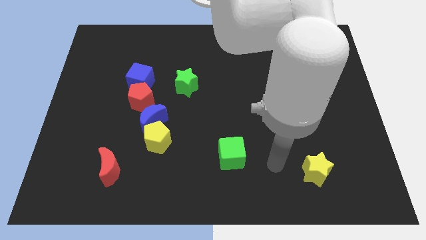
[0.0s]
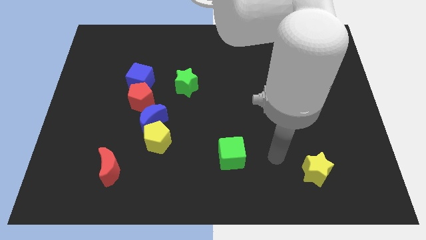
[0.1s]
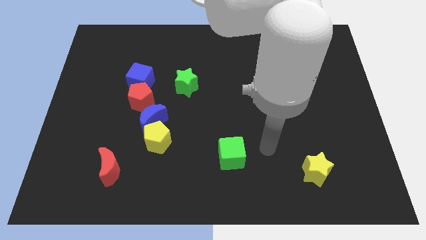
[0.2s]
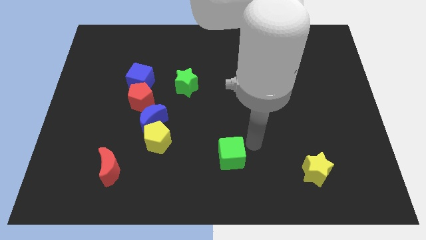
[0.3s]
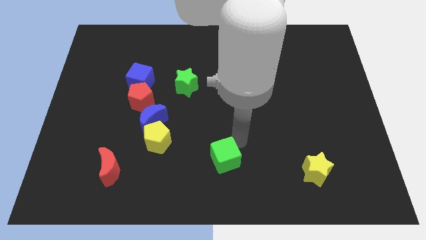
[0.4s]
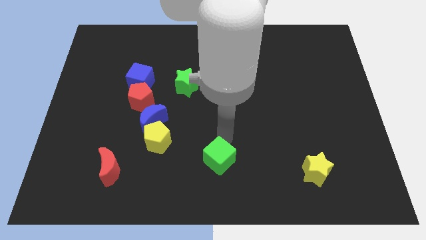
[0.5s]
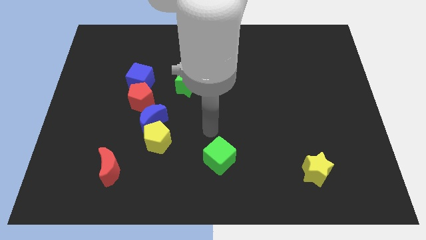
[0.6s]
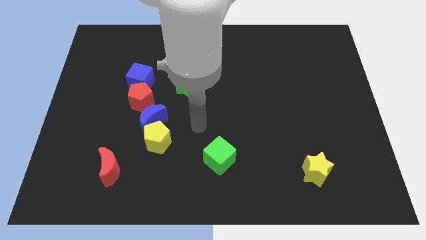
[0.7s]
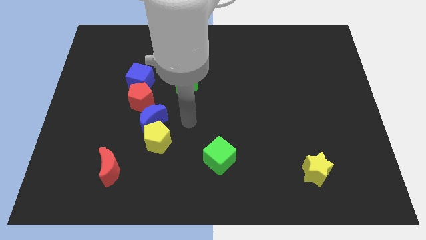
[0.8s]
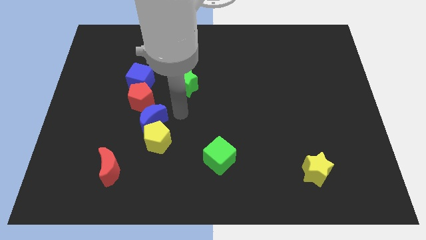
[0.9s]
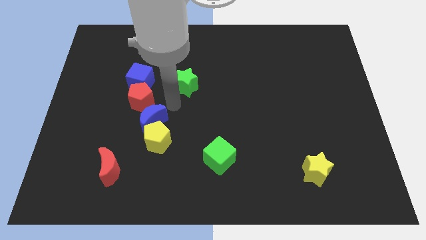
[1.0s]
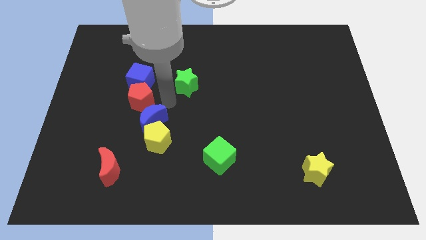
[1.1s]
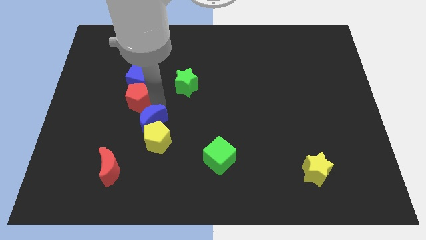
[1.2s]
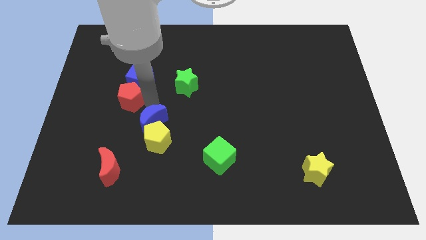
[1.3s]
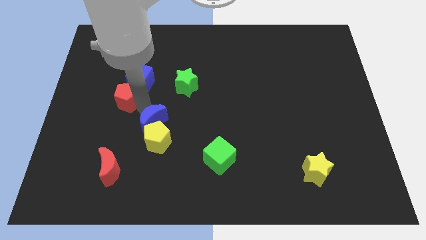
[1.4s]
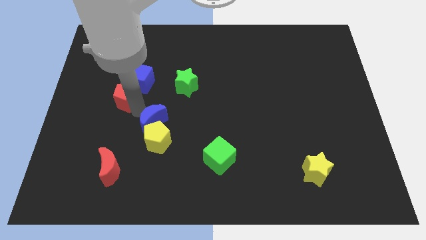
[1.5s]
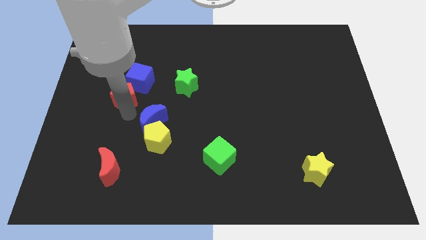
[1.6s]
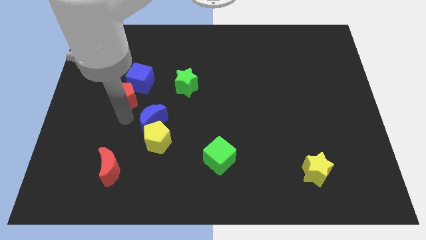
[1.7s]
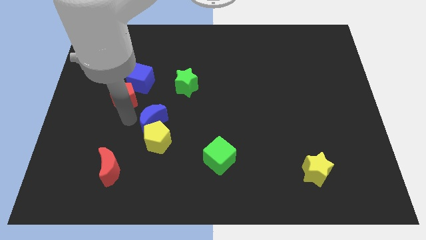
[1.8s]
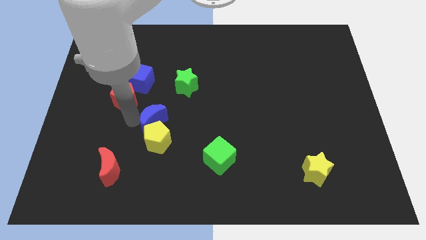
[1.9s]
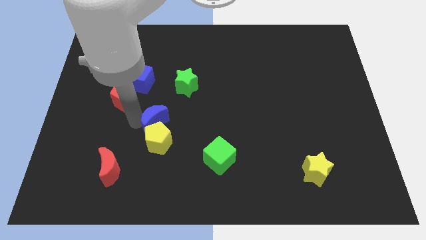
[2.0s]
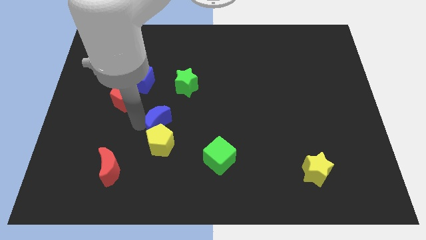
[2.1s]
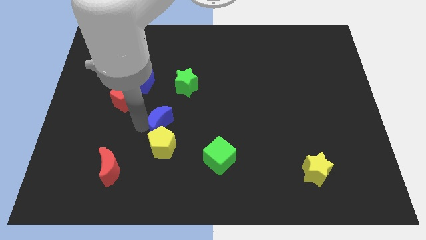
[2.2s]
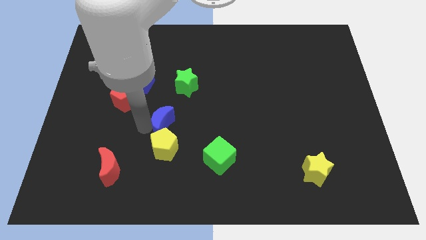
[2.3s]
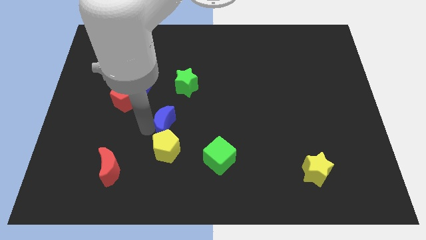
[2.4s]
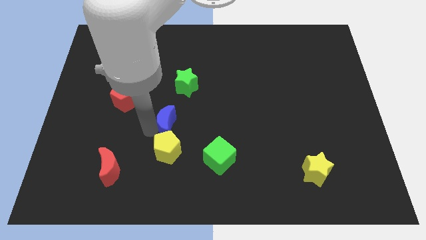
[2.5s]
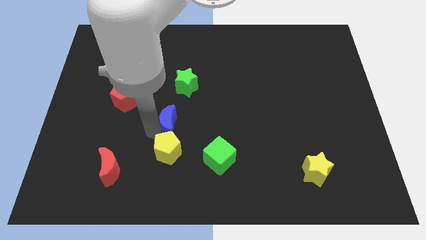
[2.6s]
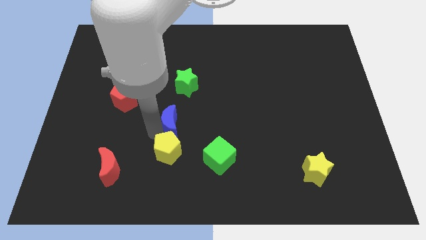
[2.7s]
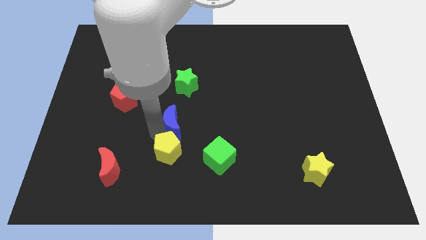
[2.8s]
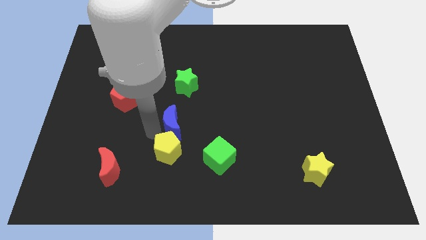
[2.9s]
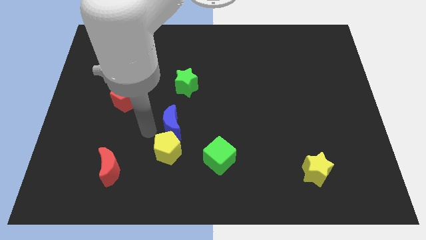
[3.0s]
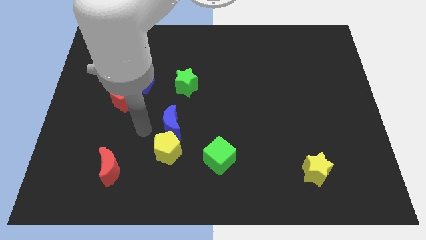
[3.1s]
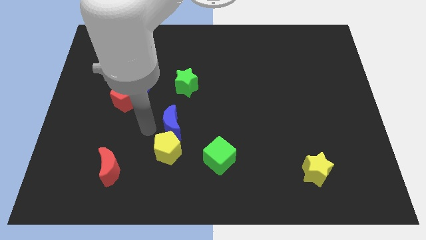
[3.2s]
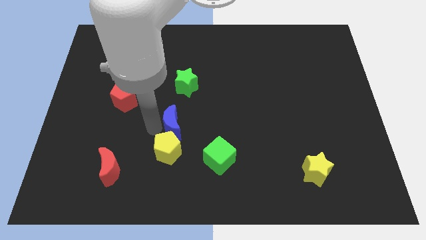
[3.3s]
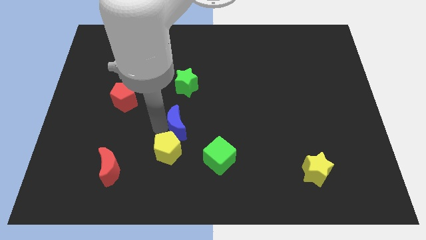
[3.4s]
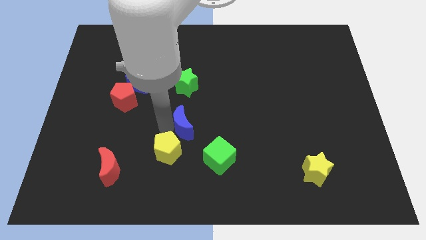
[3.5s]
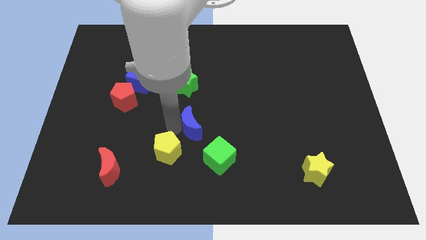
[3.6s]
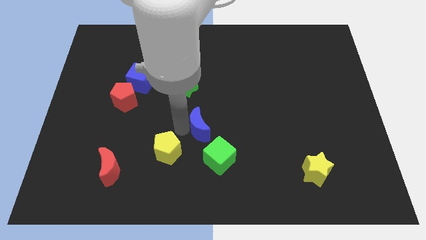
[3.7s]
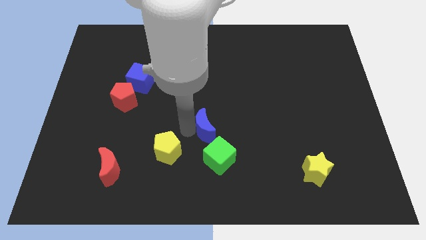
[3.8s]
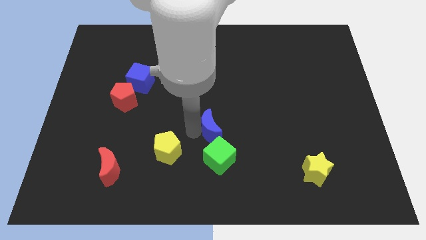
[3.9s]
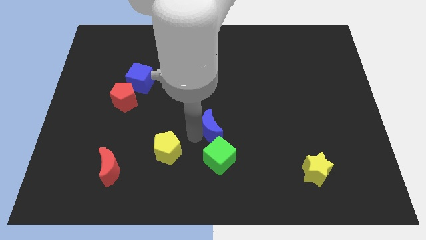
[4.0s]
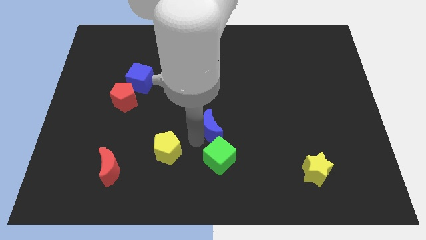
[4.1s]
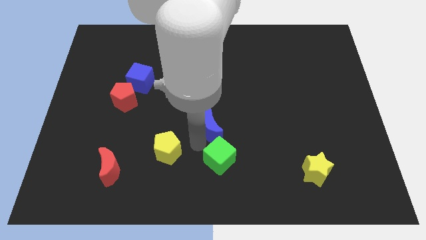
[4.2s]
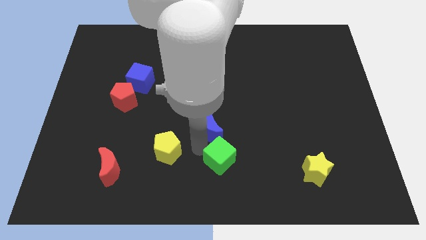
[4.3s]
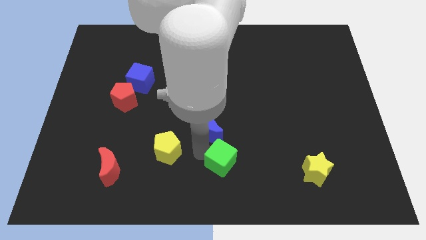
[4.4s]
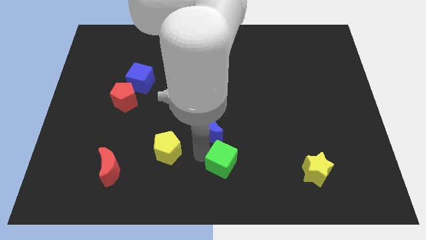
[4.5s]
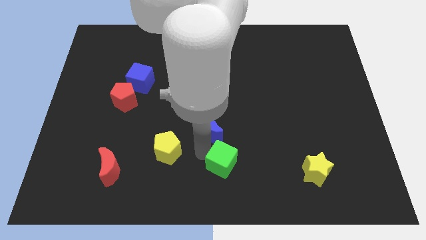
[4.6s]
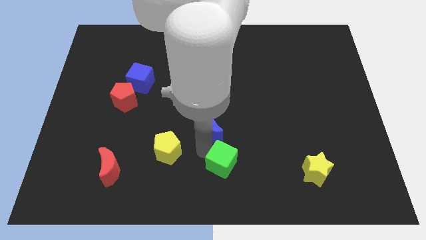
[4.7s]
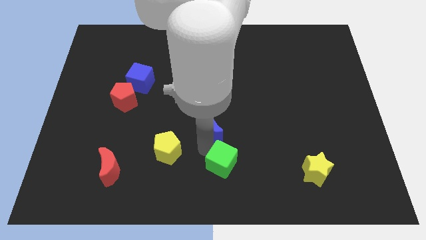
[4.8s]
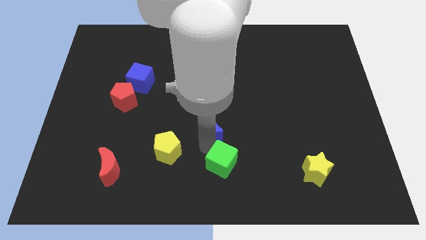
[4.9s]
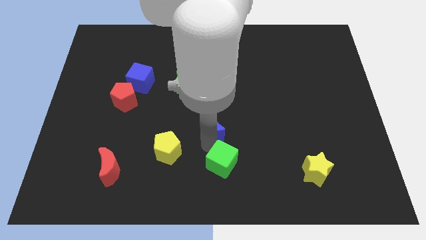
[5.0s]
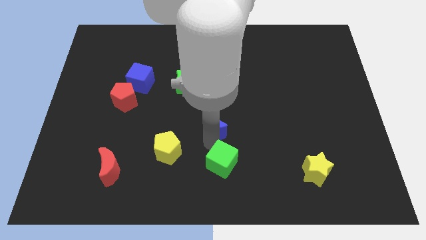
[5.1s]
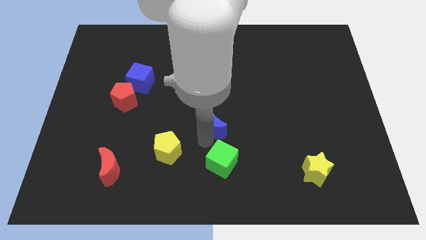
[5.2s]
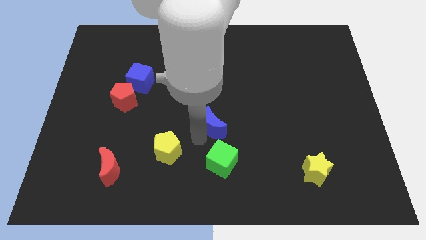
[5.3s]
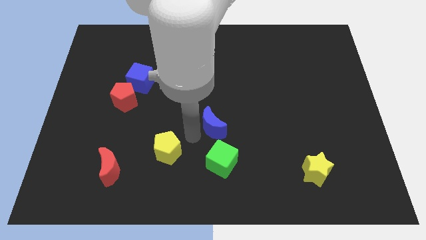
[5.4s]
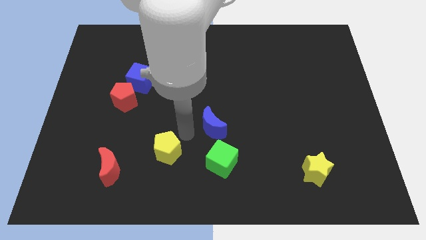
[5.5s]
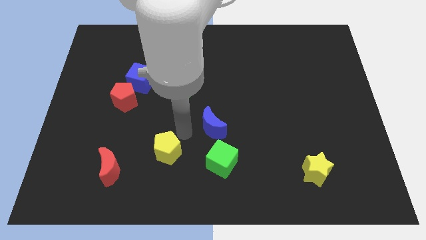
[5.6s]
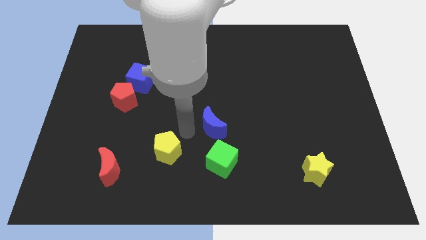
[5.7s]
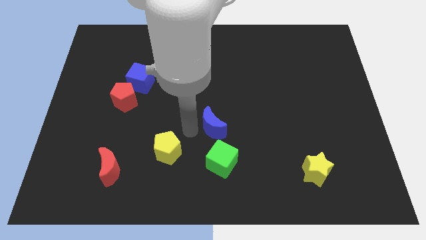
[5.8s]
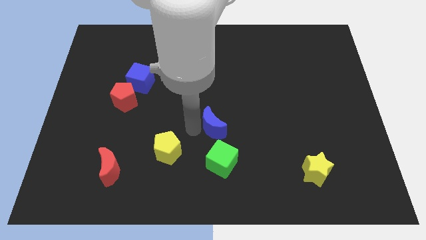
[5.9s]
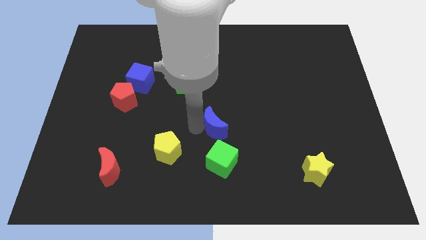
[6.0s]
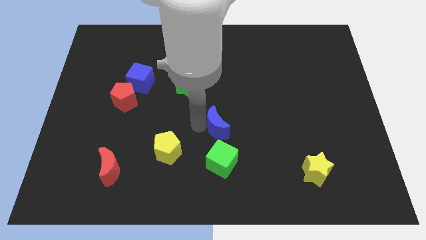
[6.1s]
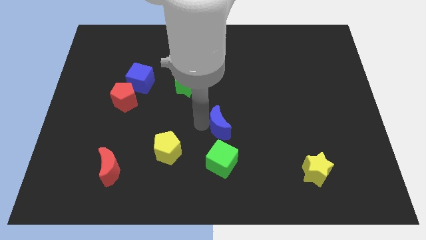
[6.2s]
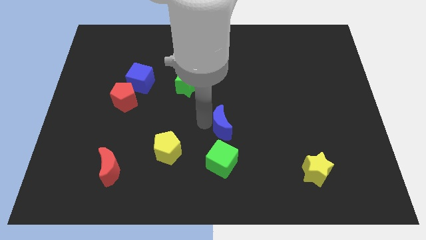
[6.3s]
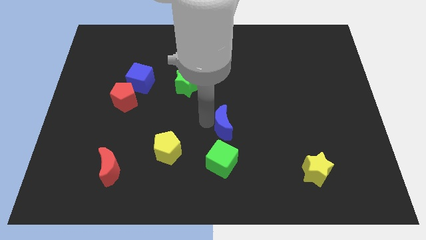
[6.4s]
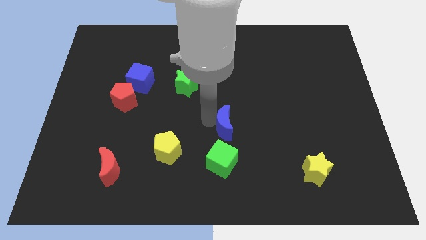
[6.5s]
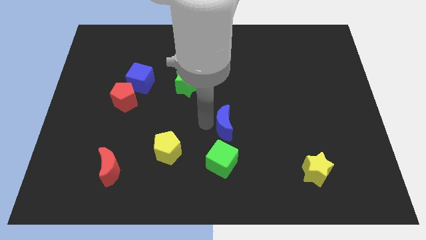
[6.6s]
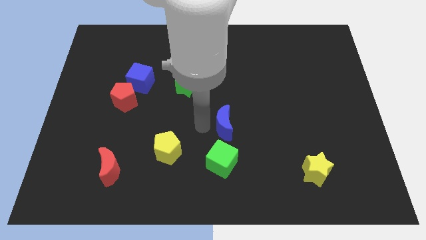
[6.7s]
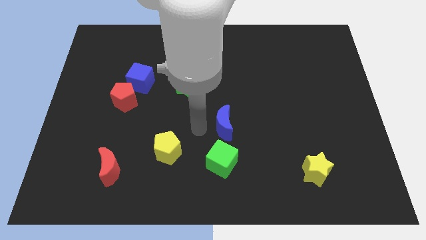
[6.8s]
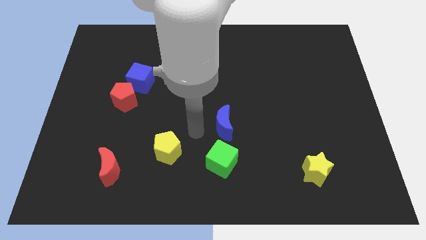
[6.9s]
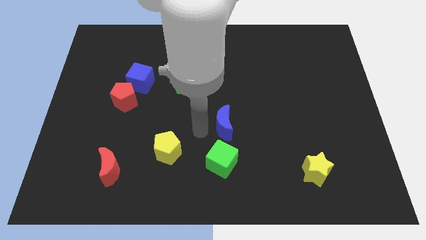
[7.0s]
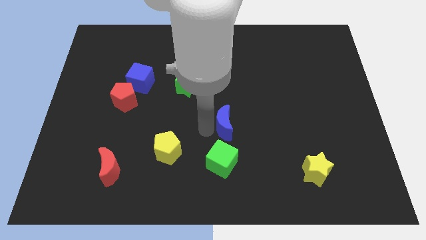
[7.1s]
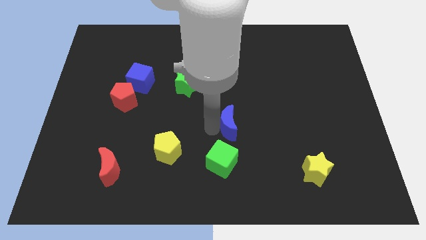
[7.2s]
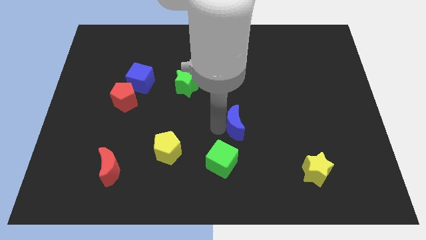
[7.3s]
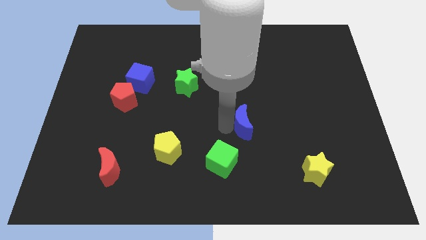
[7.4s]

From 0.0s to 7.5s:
push the blue moon to the right

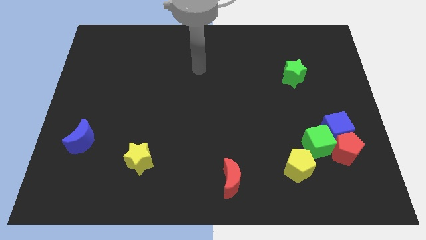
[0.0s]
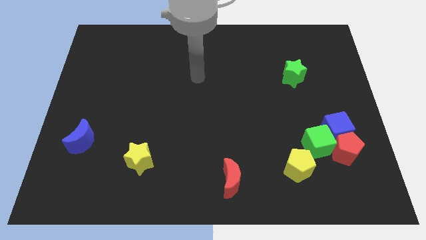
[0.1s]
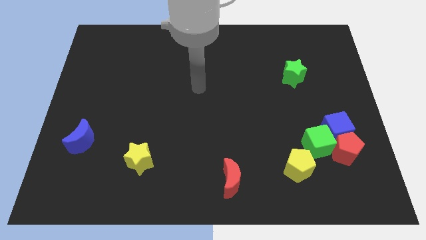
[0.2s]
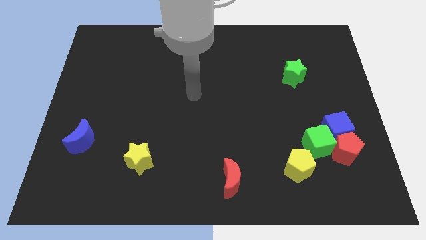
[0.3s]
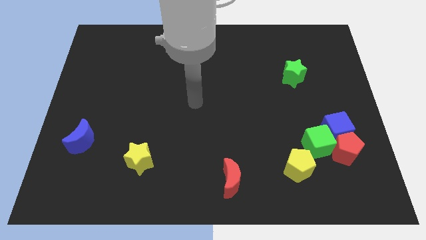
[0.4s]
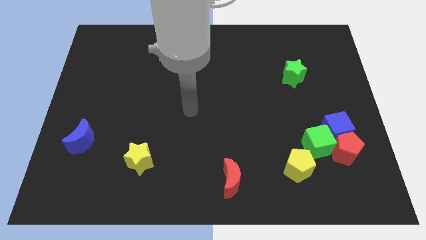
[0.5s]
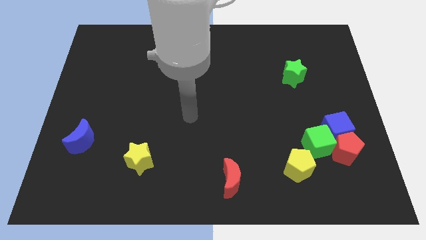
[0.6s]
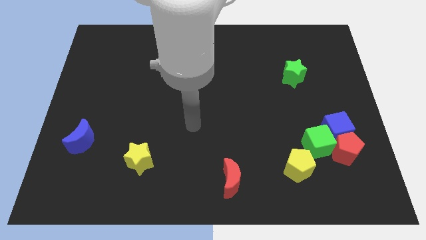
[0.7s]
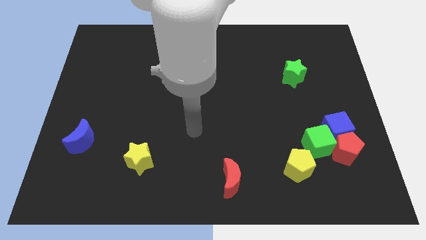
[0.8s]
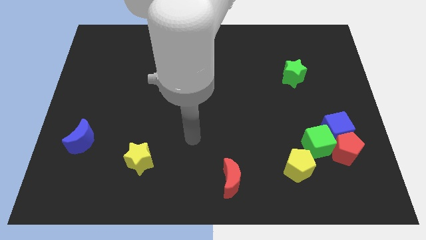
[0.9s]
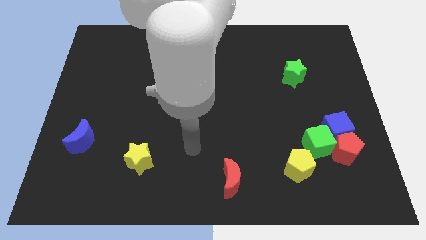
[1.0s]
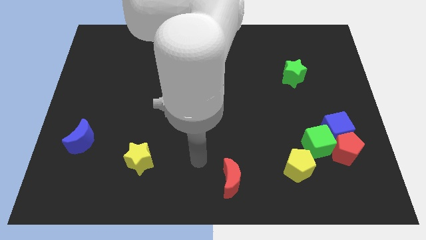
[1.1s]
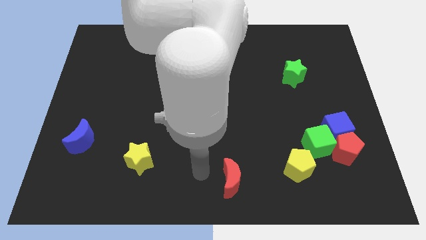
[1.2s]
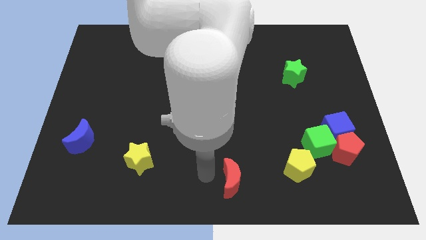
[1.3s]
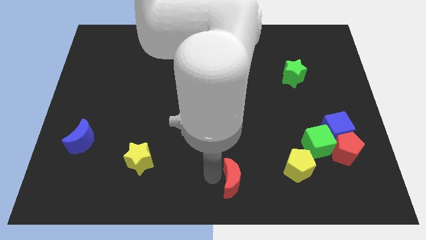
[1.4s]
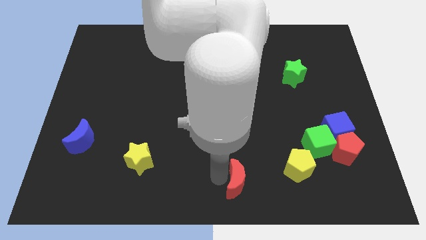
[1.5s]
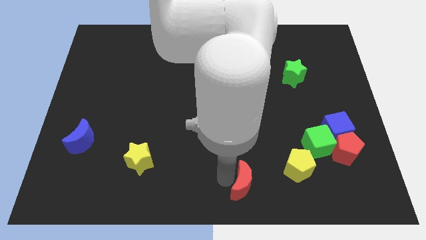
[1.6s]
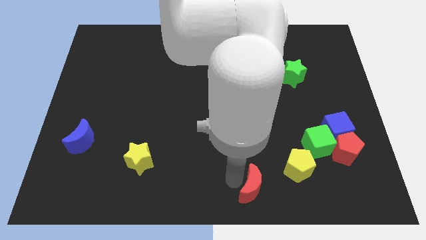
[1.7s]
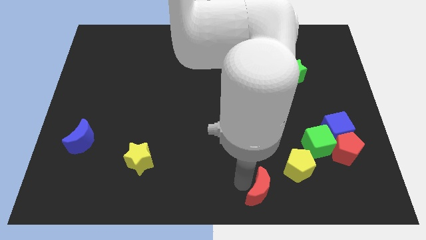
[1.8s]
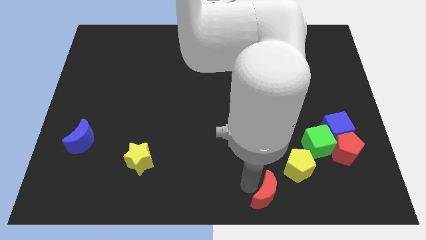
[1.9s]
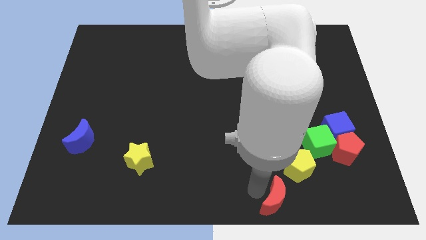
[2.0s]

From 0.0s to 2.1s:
slide the red moon somewhat right
